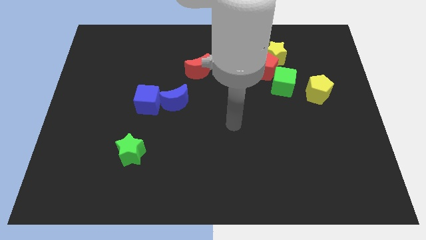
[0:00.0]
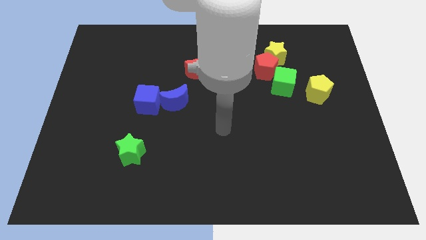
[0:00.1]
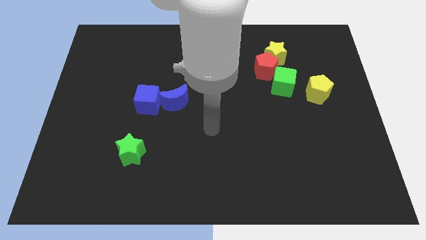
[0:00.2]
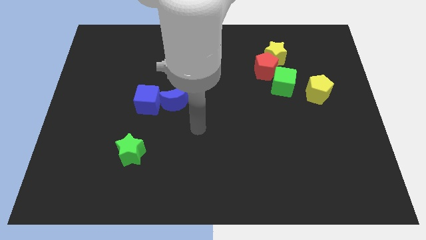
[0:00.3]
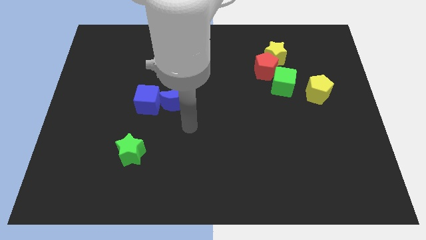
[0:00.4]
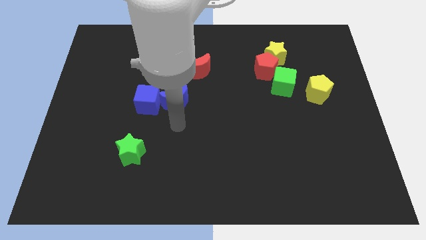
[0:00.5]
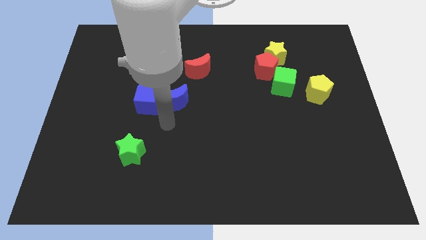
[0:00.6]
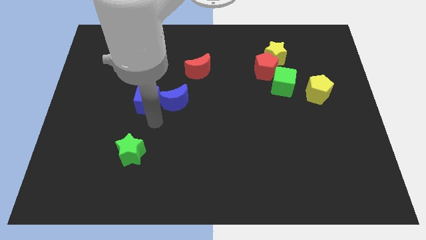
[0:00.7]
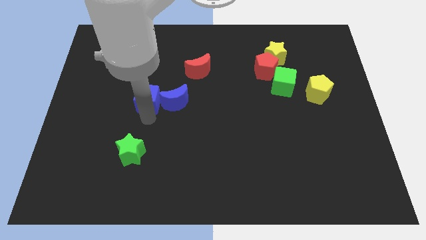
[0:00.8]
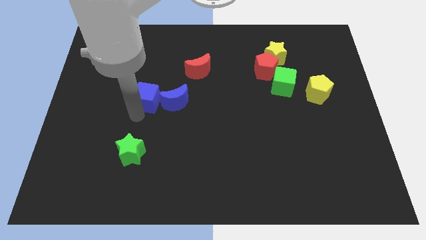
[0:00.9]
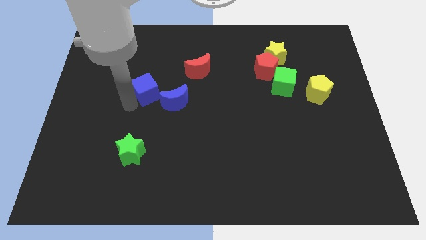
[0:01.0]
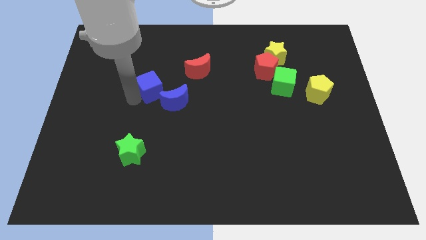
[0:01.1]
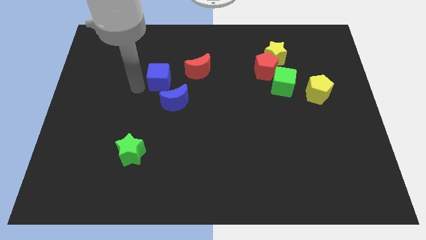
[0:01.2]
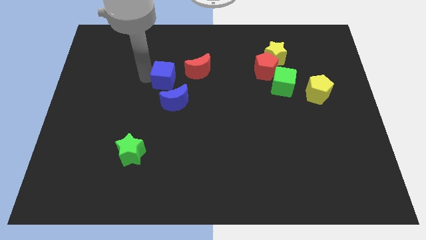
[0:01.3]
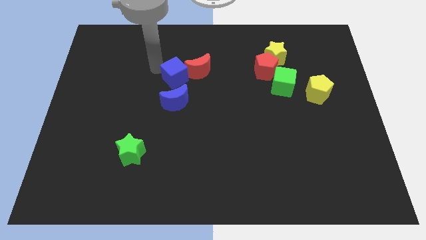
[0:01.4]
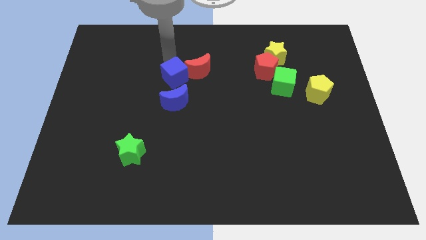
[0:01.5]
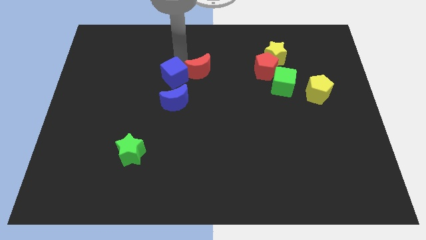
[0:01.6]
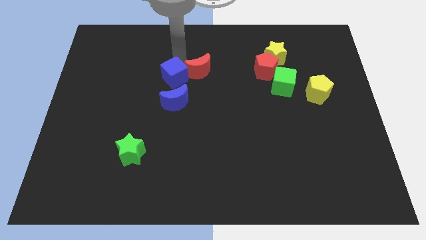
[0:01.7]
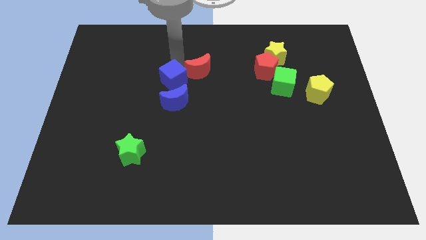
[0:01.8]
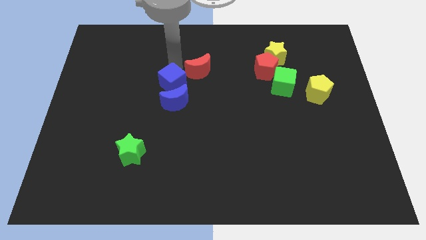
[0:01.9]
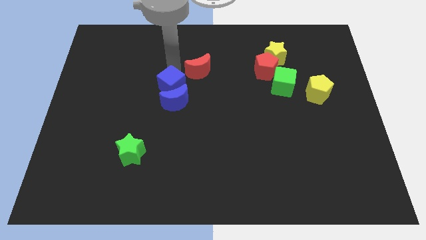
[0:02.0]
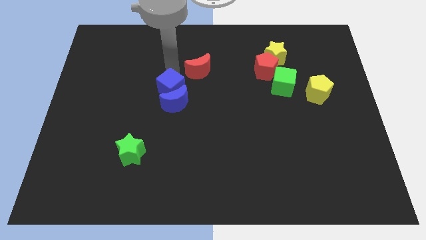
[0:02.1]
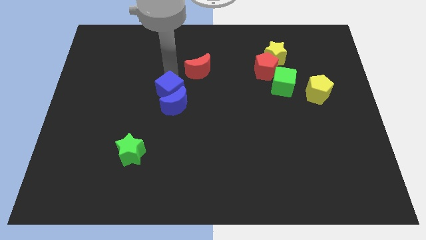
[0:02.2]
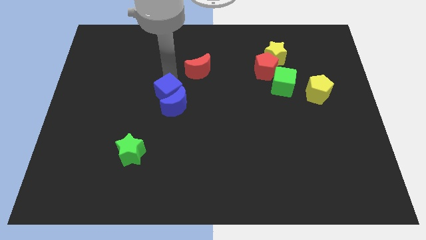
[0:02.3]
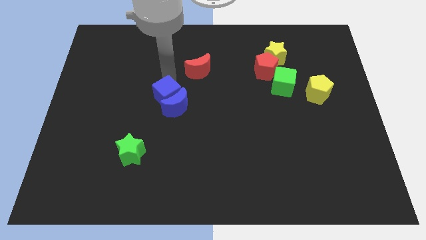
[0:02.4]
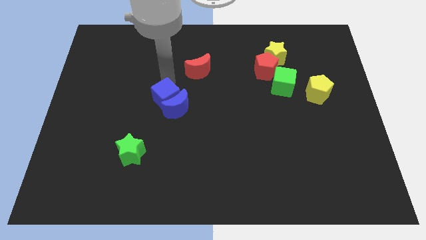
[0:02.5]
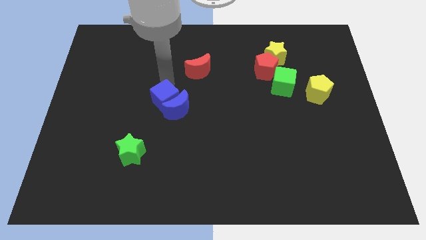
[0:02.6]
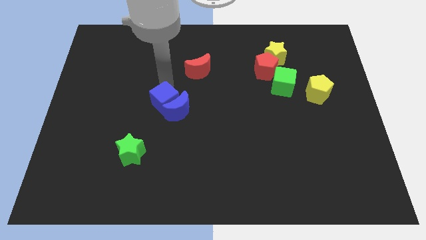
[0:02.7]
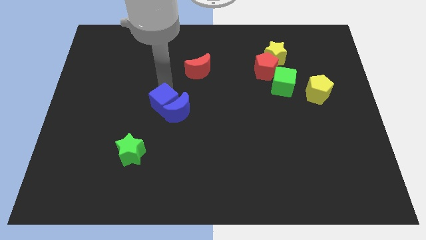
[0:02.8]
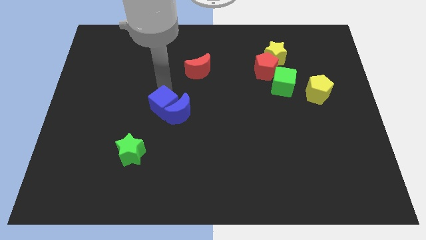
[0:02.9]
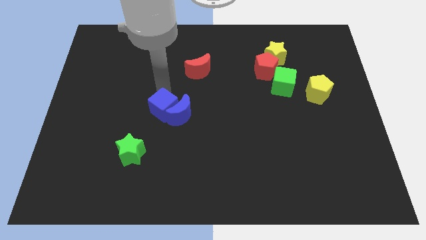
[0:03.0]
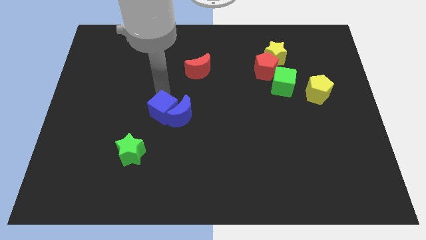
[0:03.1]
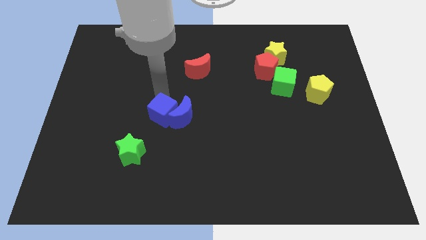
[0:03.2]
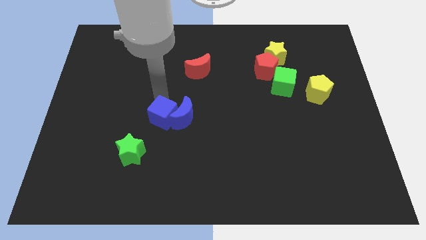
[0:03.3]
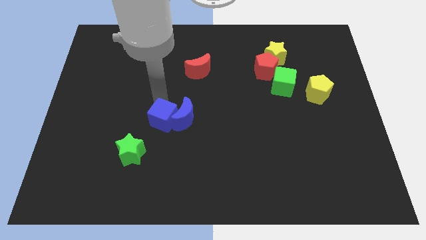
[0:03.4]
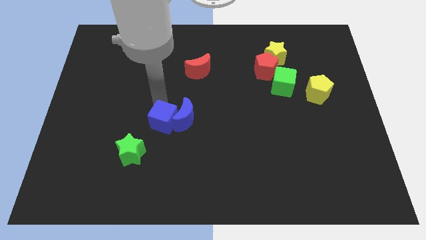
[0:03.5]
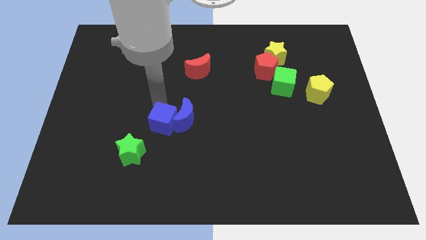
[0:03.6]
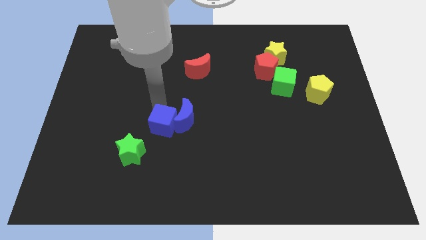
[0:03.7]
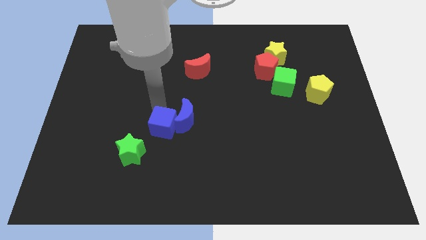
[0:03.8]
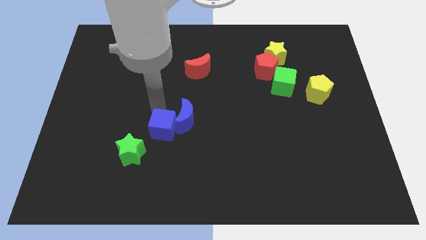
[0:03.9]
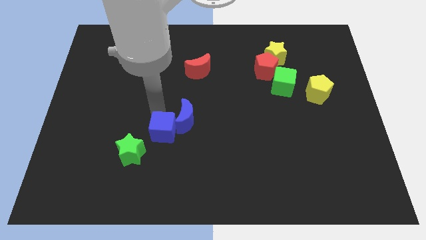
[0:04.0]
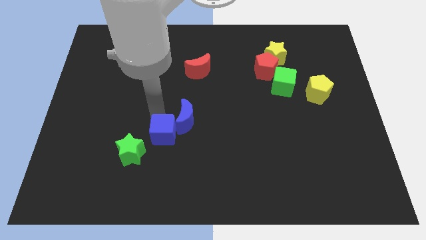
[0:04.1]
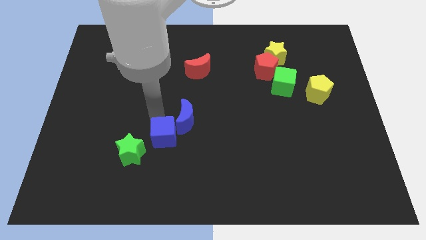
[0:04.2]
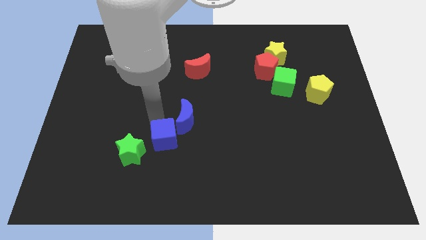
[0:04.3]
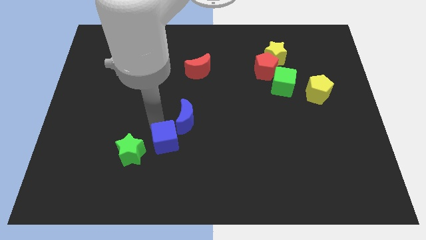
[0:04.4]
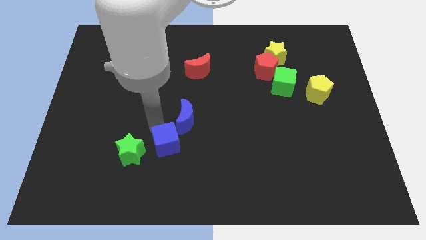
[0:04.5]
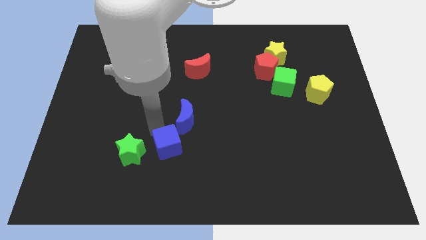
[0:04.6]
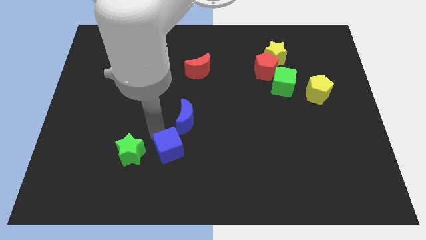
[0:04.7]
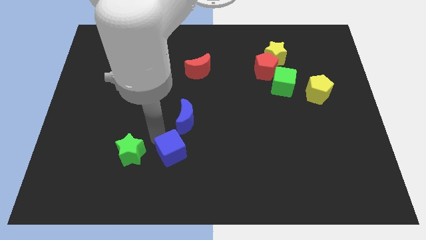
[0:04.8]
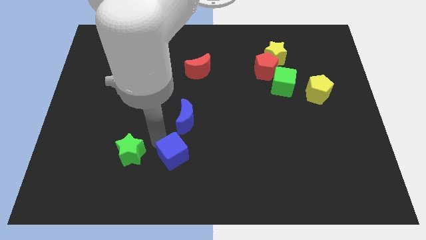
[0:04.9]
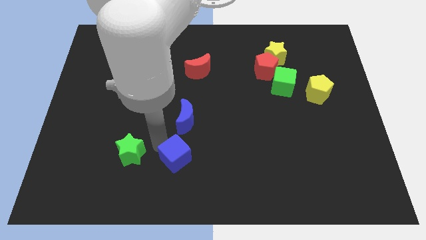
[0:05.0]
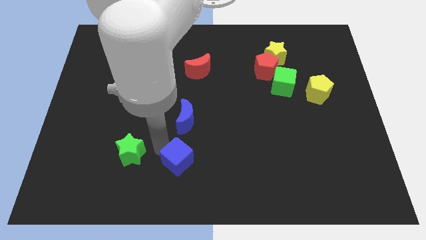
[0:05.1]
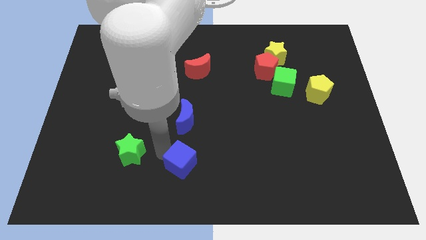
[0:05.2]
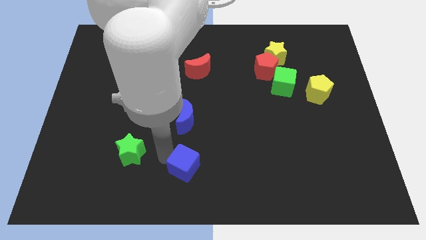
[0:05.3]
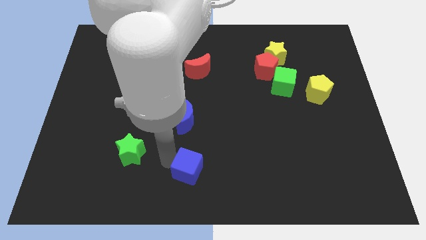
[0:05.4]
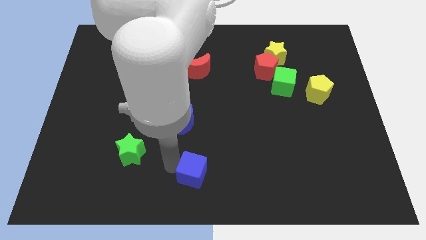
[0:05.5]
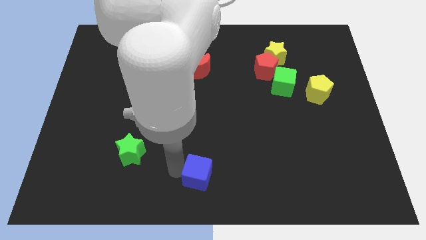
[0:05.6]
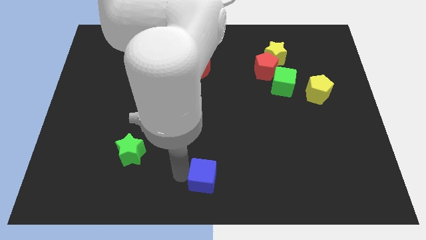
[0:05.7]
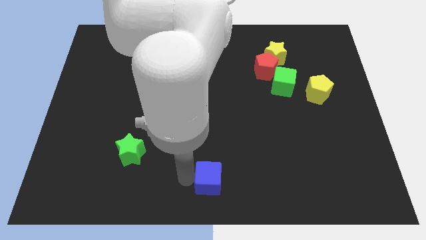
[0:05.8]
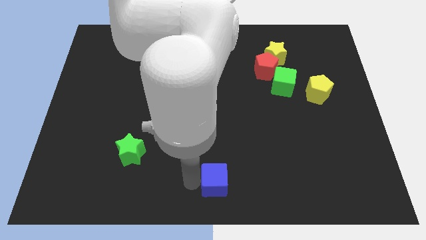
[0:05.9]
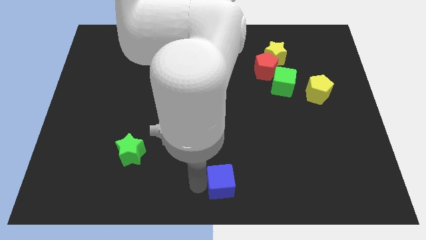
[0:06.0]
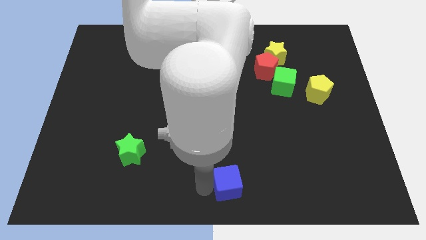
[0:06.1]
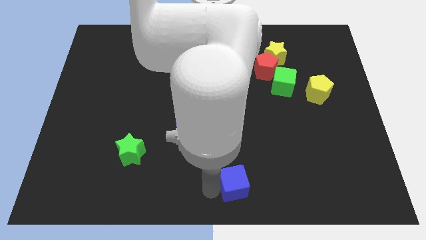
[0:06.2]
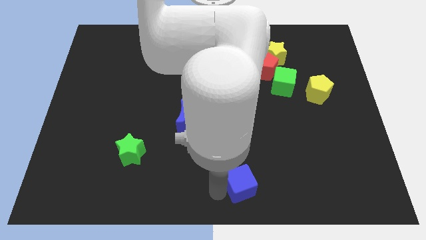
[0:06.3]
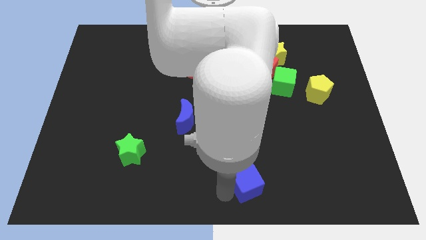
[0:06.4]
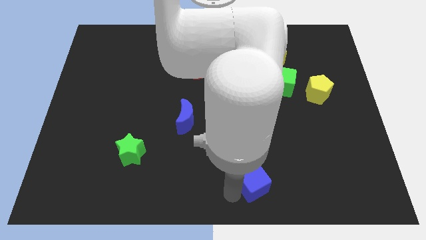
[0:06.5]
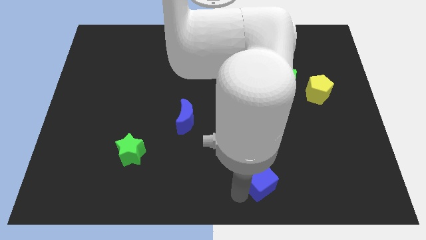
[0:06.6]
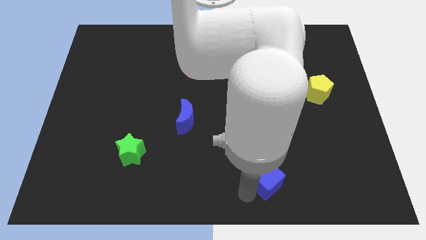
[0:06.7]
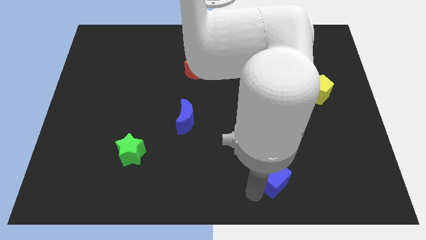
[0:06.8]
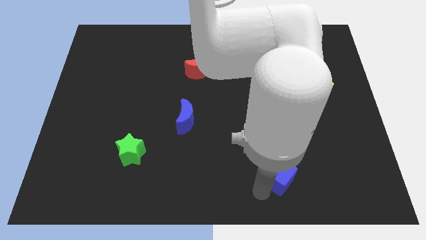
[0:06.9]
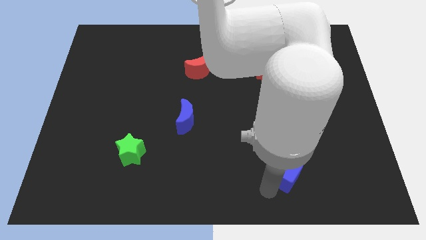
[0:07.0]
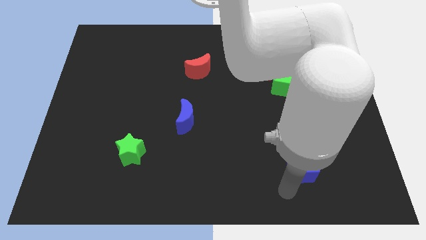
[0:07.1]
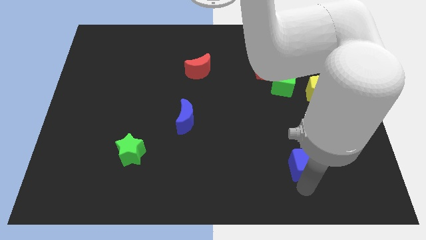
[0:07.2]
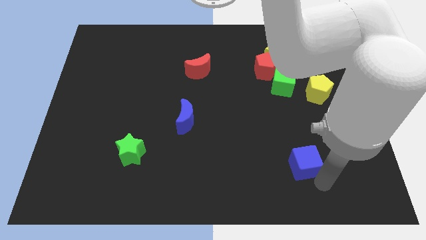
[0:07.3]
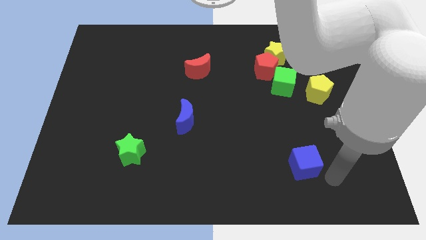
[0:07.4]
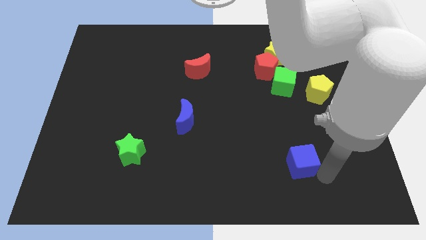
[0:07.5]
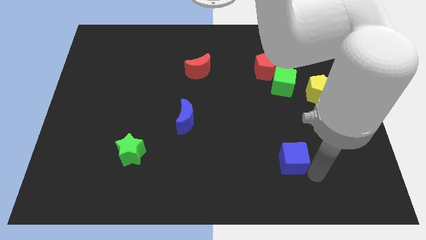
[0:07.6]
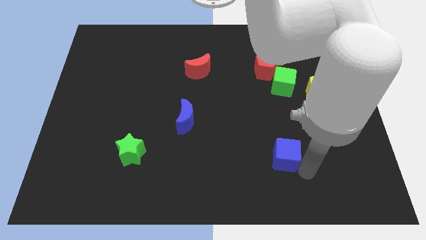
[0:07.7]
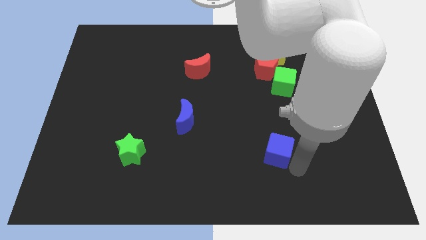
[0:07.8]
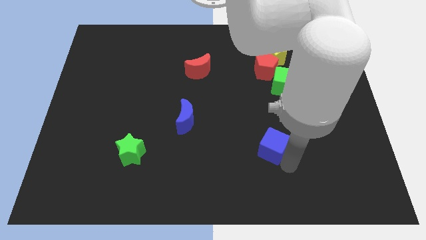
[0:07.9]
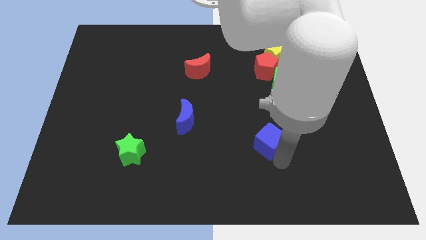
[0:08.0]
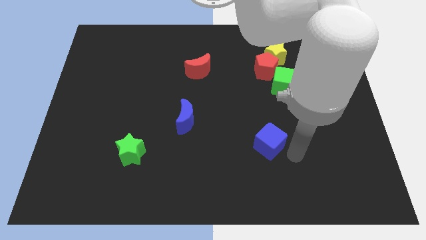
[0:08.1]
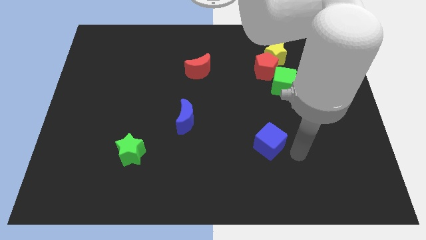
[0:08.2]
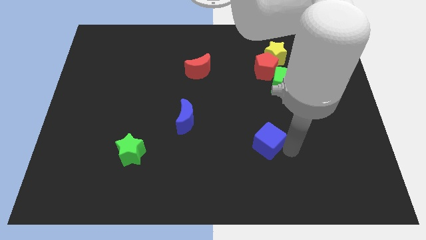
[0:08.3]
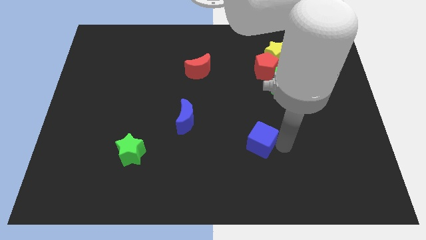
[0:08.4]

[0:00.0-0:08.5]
push the blue cube a little bit right
